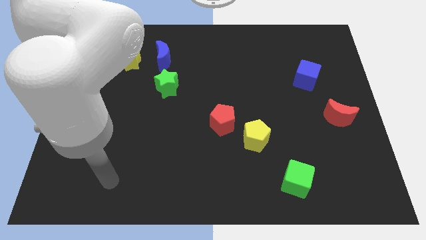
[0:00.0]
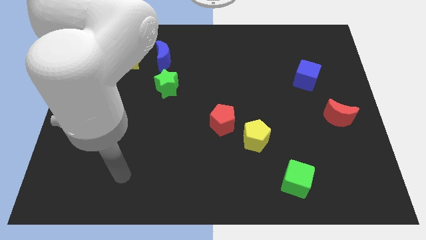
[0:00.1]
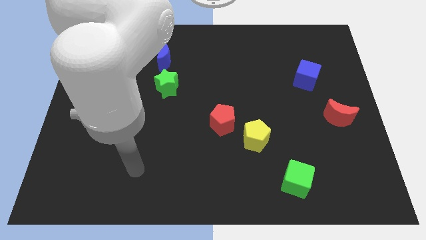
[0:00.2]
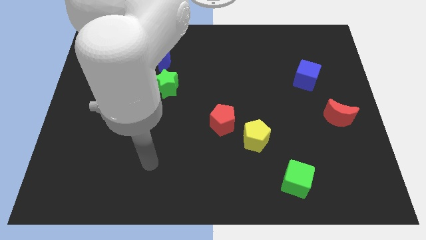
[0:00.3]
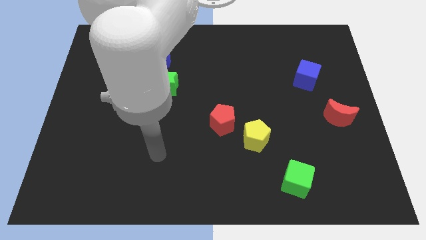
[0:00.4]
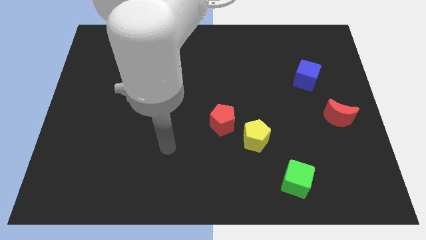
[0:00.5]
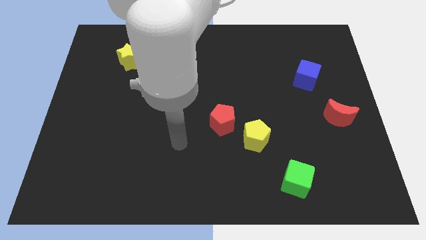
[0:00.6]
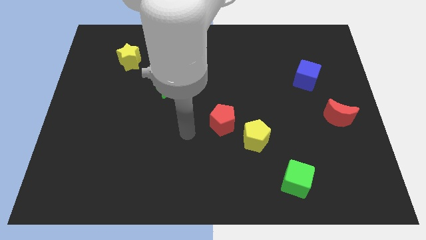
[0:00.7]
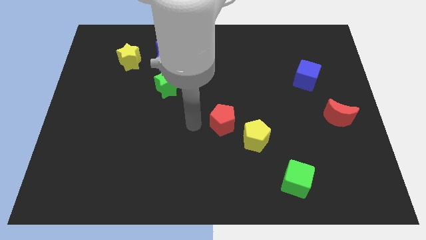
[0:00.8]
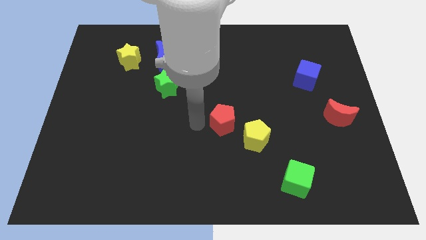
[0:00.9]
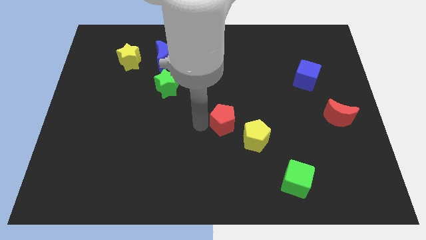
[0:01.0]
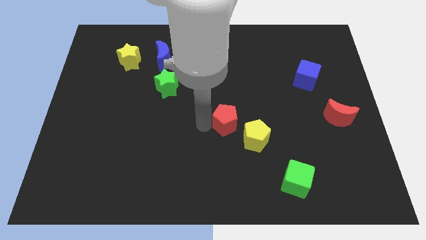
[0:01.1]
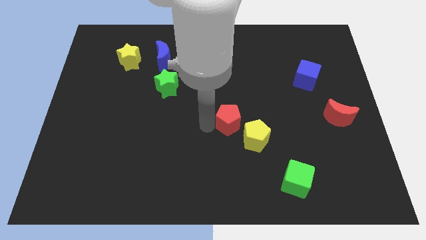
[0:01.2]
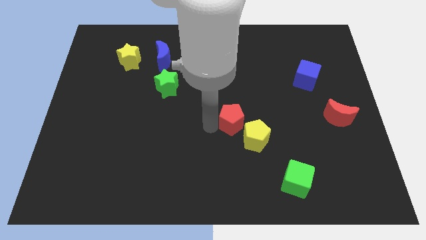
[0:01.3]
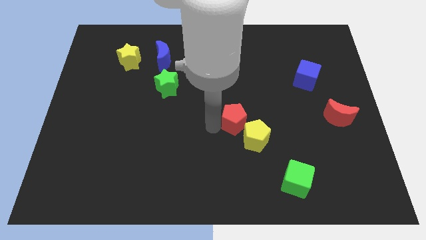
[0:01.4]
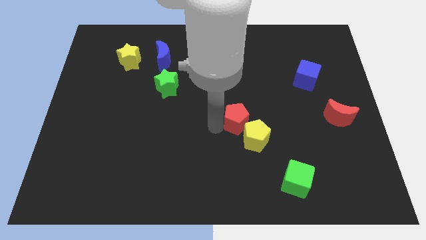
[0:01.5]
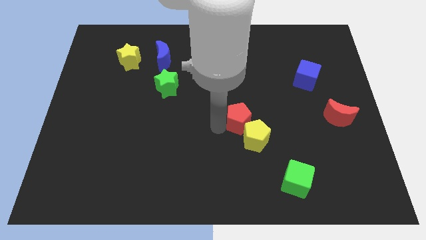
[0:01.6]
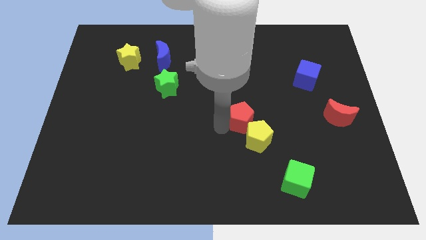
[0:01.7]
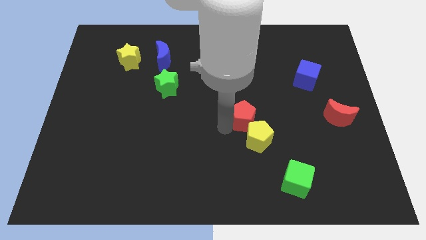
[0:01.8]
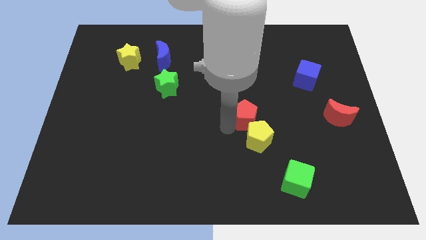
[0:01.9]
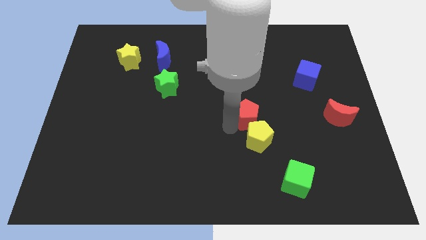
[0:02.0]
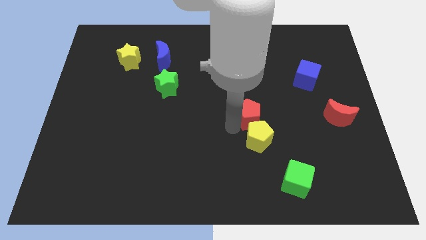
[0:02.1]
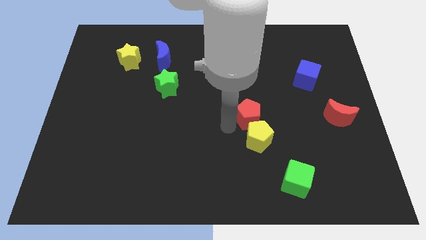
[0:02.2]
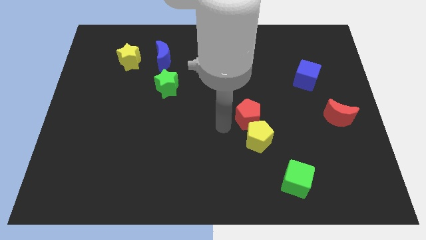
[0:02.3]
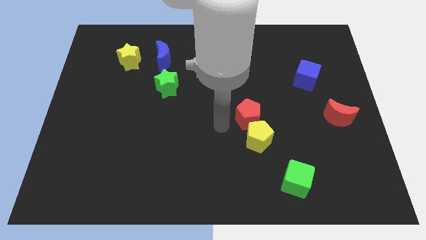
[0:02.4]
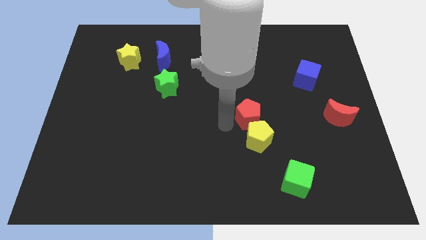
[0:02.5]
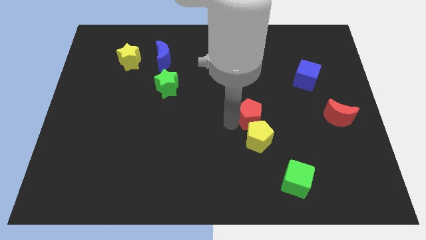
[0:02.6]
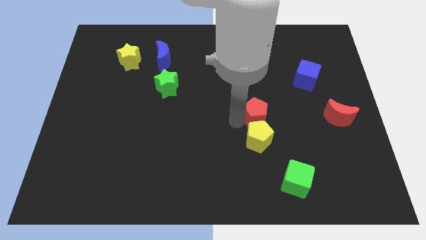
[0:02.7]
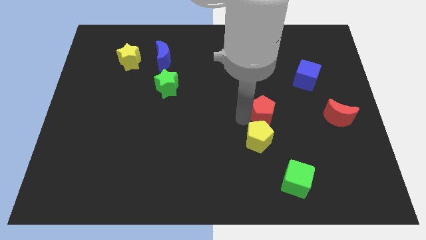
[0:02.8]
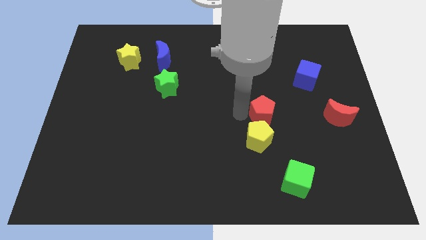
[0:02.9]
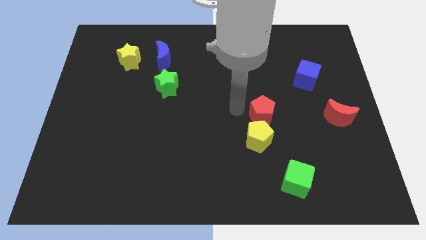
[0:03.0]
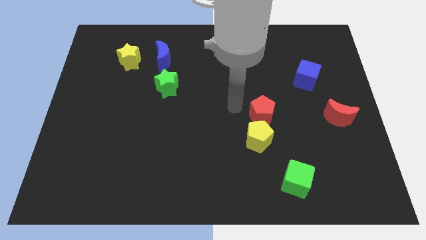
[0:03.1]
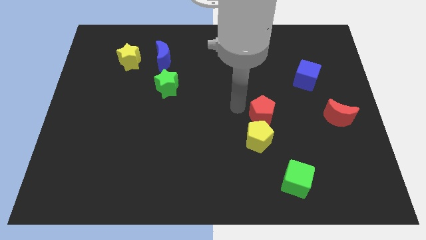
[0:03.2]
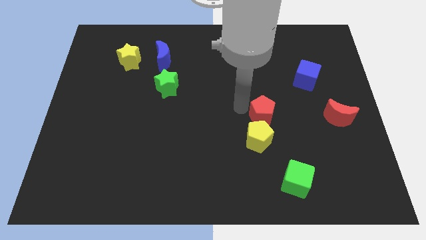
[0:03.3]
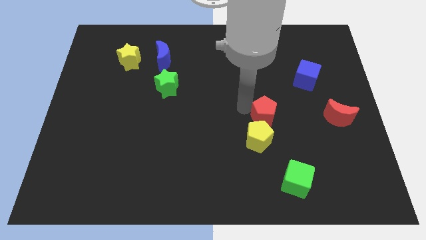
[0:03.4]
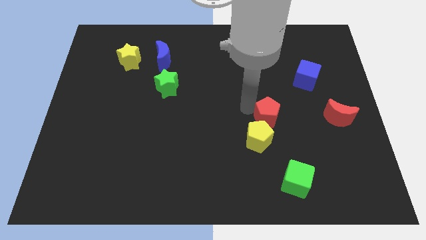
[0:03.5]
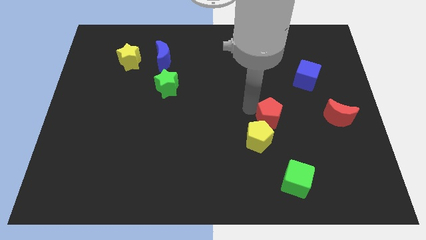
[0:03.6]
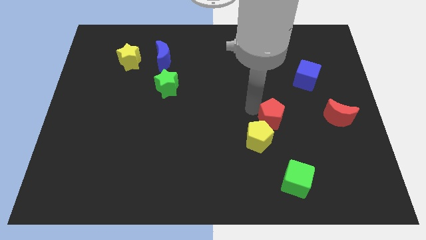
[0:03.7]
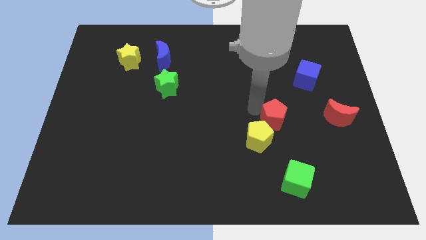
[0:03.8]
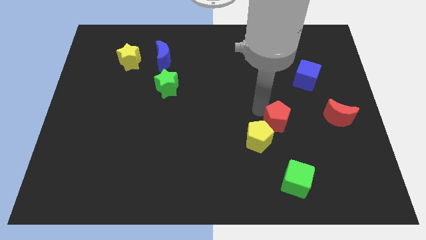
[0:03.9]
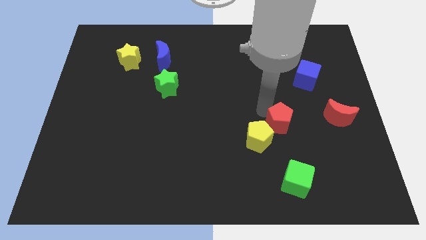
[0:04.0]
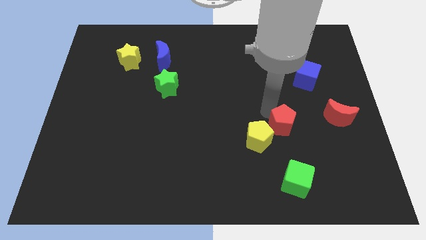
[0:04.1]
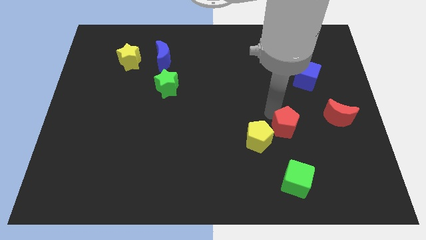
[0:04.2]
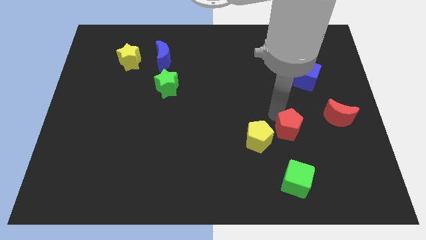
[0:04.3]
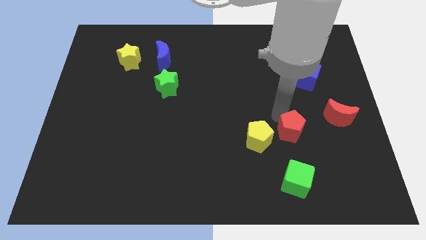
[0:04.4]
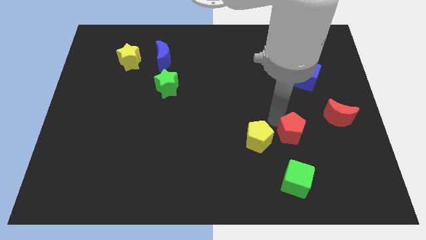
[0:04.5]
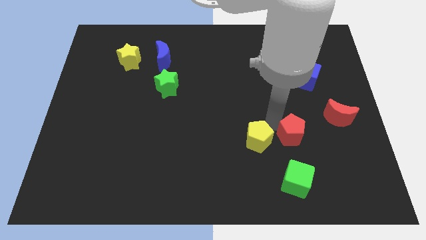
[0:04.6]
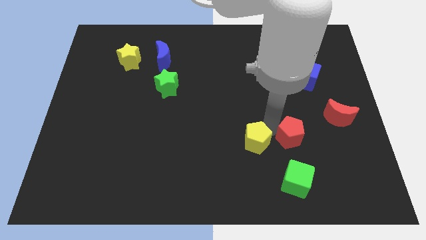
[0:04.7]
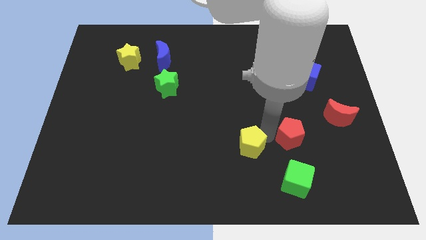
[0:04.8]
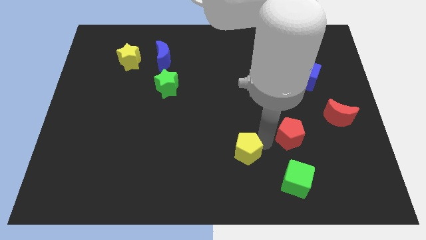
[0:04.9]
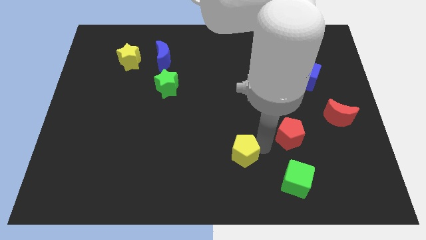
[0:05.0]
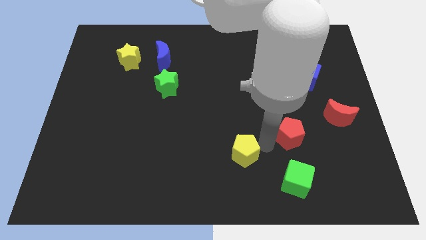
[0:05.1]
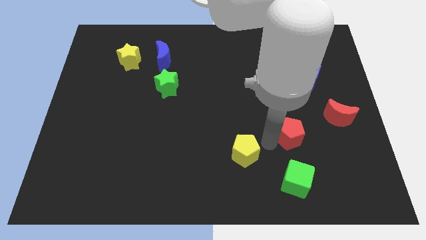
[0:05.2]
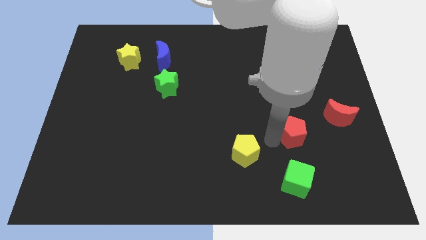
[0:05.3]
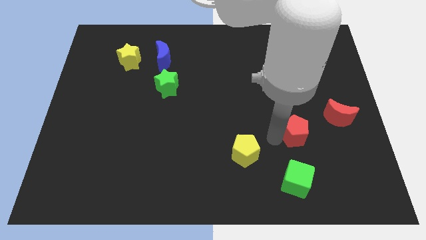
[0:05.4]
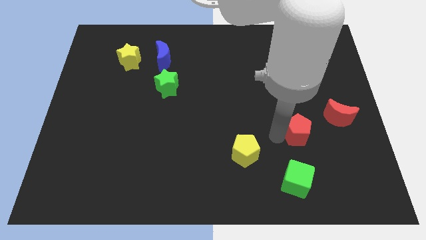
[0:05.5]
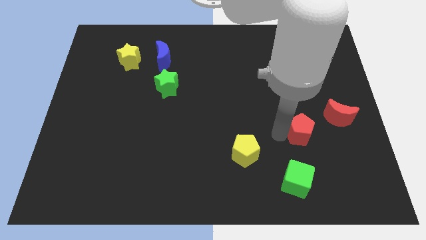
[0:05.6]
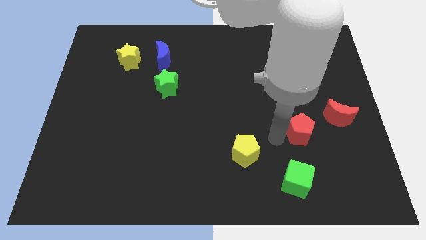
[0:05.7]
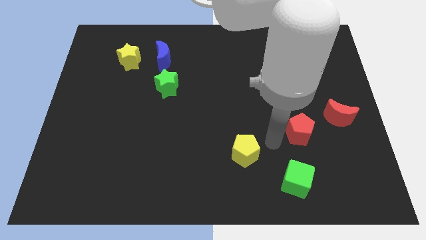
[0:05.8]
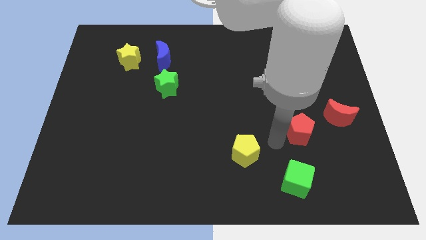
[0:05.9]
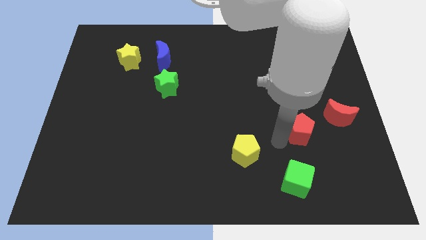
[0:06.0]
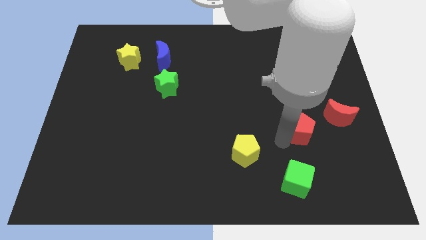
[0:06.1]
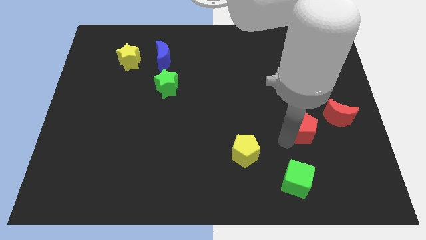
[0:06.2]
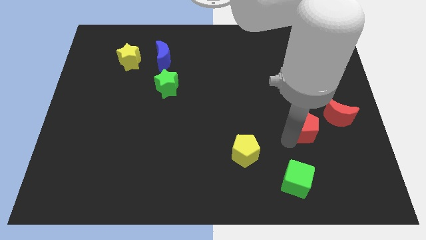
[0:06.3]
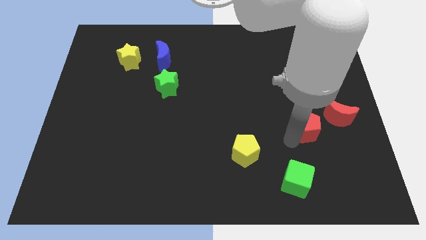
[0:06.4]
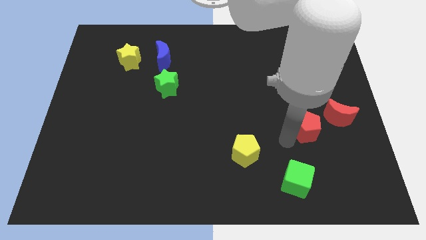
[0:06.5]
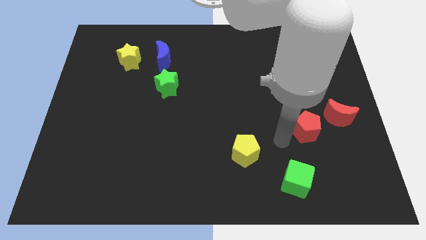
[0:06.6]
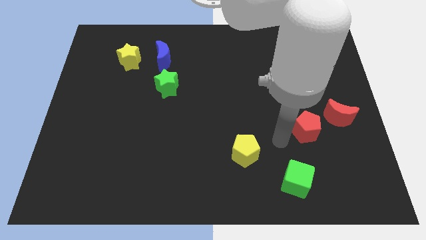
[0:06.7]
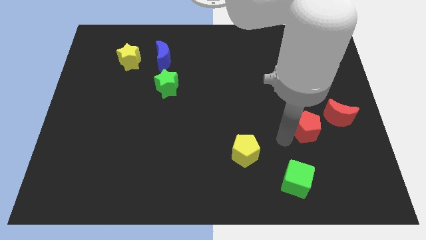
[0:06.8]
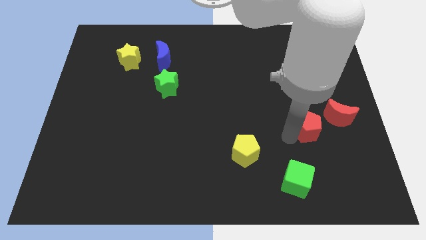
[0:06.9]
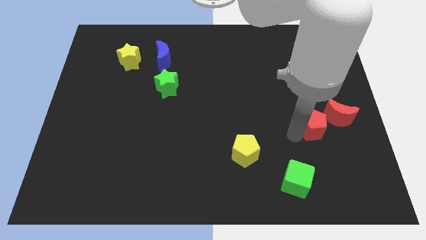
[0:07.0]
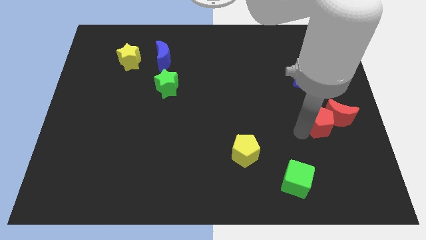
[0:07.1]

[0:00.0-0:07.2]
push the red pentagon towards the red moon

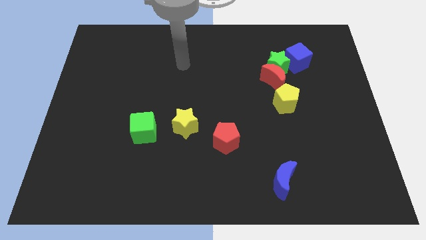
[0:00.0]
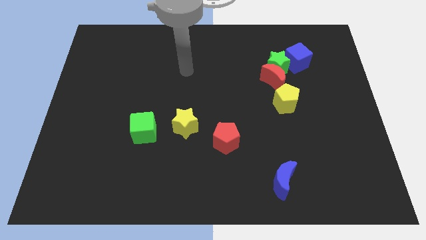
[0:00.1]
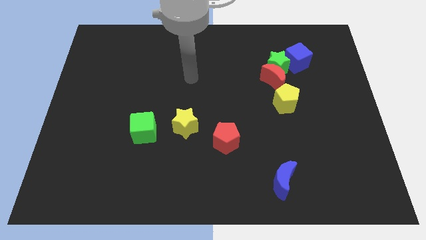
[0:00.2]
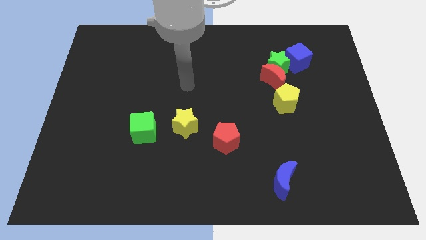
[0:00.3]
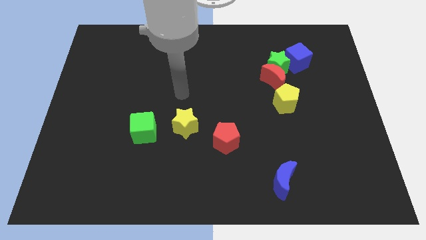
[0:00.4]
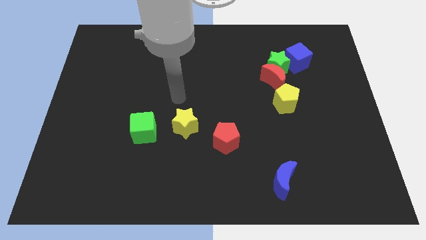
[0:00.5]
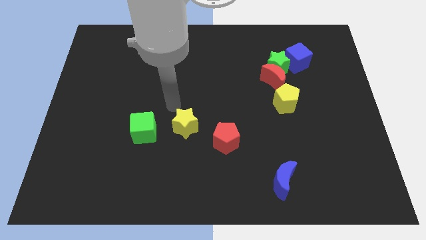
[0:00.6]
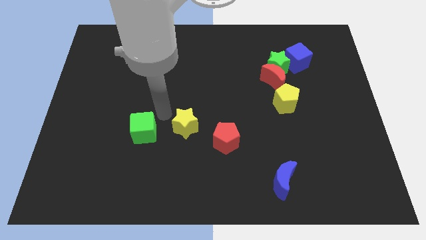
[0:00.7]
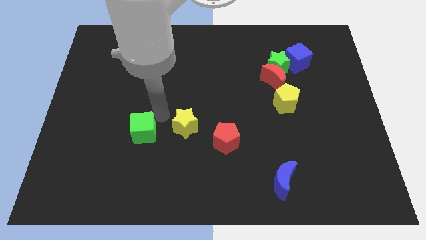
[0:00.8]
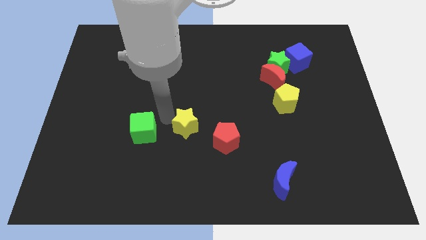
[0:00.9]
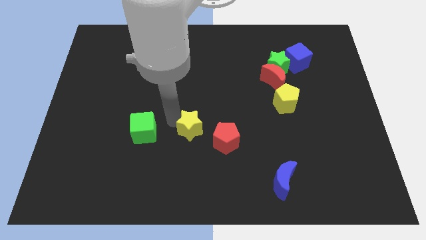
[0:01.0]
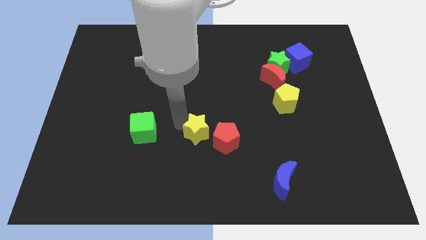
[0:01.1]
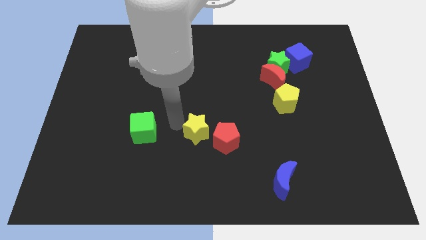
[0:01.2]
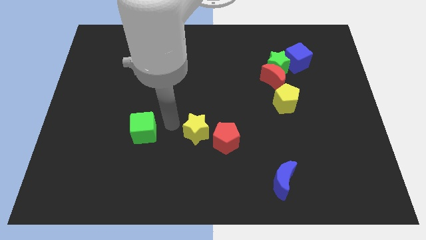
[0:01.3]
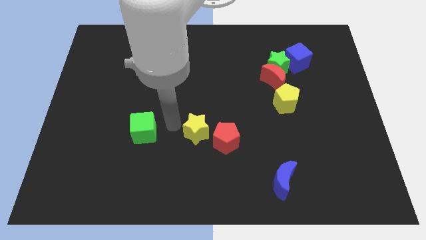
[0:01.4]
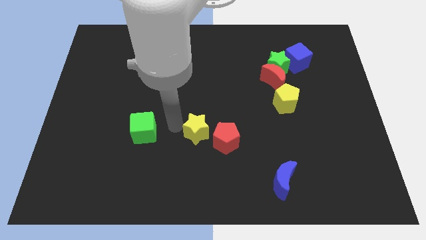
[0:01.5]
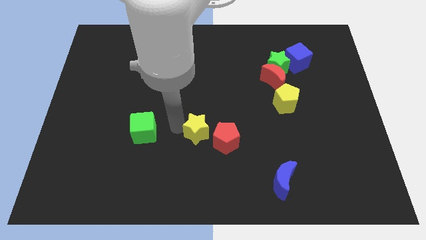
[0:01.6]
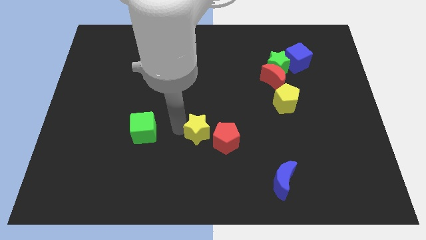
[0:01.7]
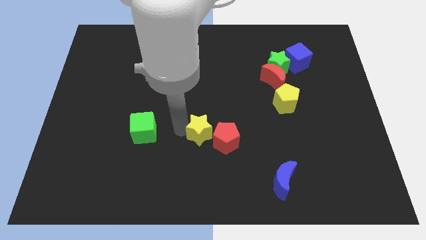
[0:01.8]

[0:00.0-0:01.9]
push the yellow star to the red pentagon
